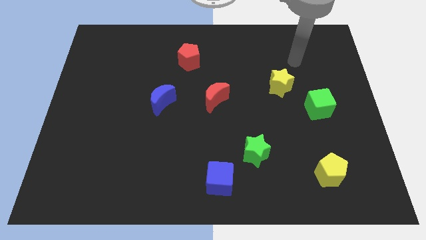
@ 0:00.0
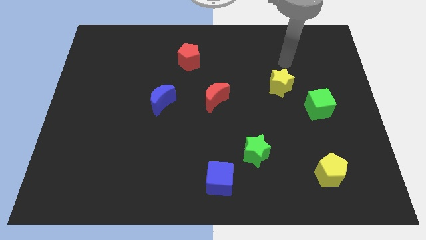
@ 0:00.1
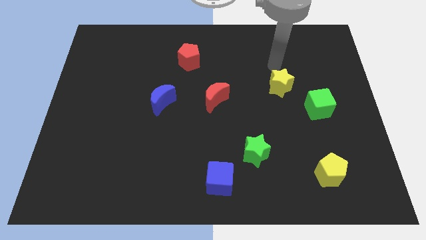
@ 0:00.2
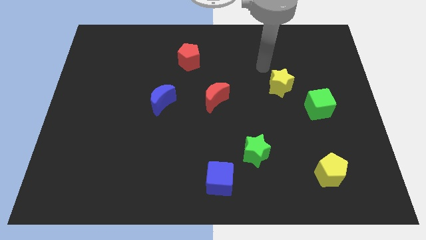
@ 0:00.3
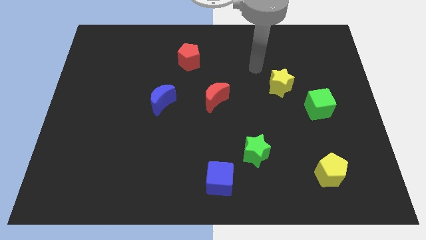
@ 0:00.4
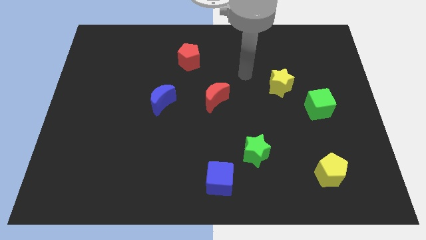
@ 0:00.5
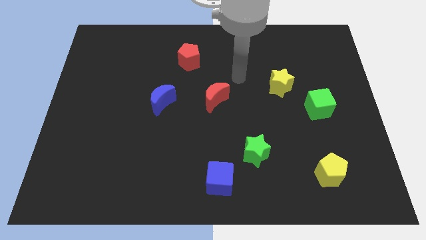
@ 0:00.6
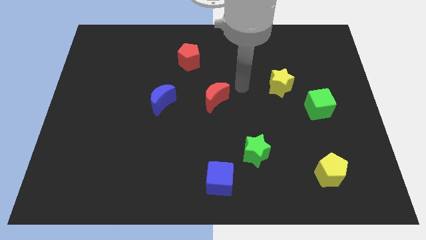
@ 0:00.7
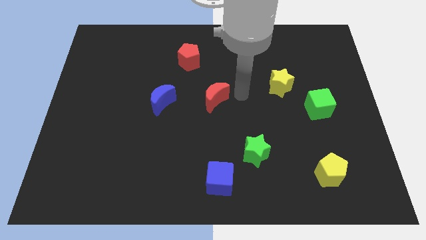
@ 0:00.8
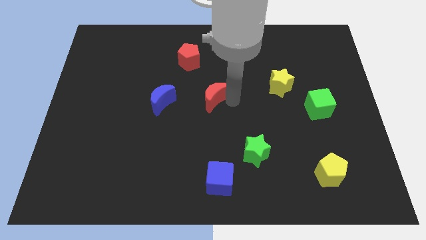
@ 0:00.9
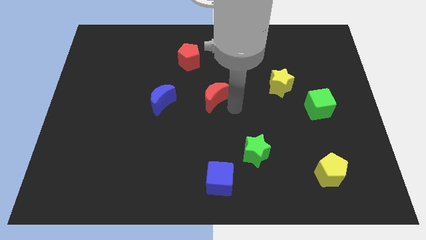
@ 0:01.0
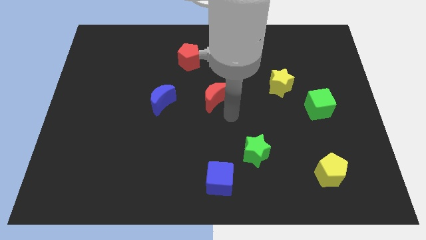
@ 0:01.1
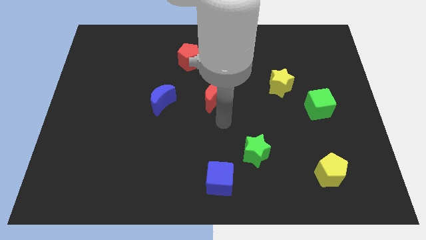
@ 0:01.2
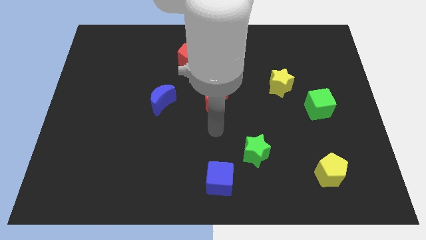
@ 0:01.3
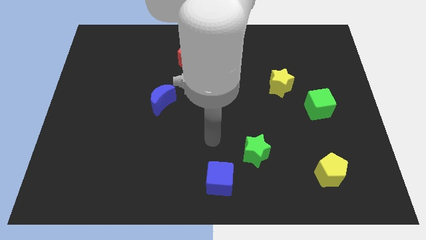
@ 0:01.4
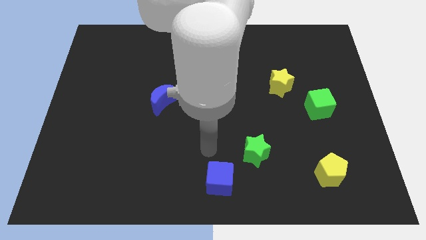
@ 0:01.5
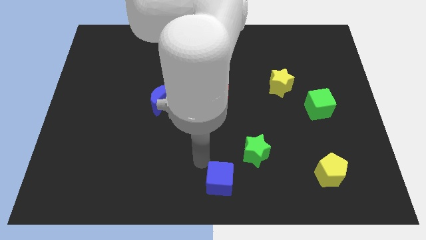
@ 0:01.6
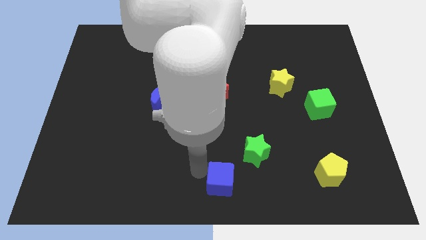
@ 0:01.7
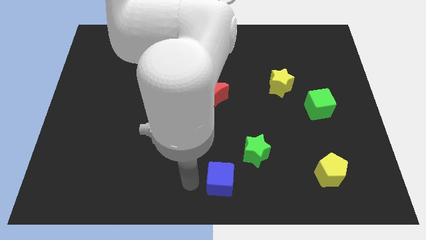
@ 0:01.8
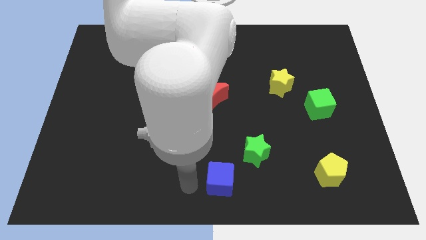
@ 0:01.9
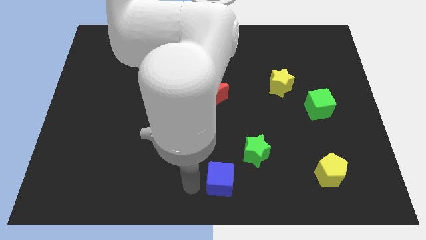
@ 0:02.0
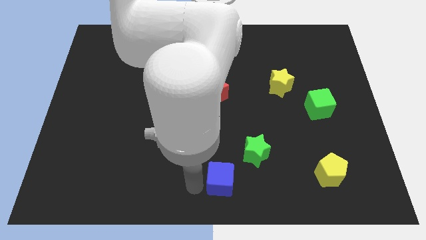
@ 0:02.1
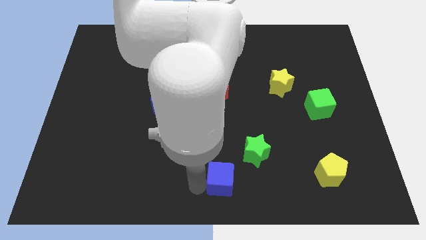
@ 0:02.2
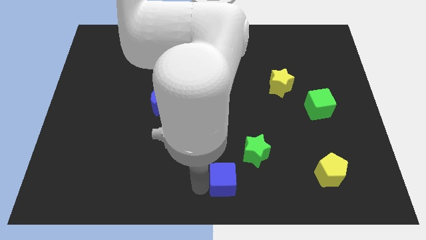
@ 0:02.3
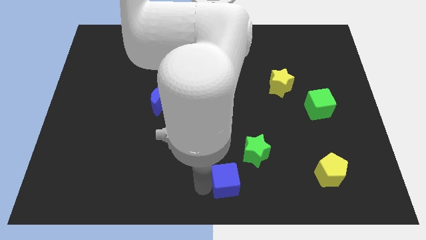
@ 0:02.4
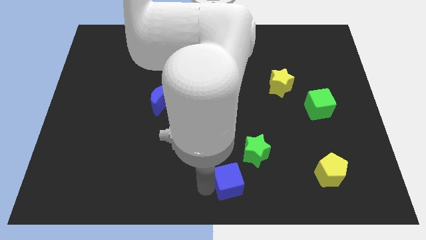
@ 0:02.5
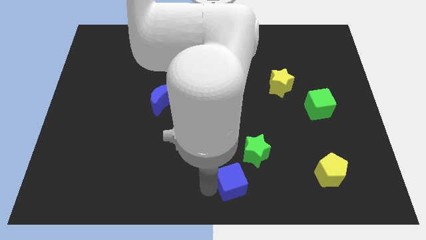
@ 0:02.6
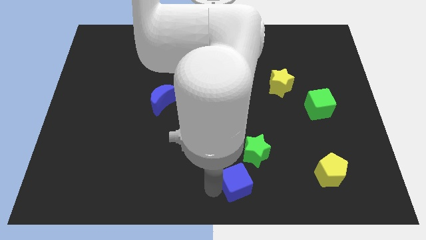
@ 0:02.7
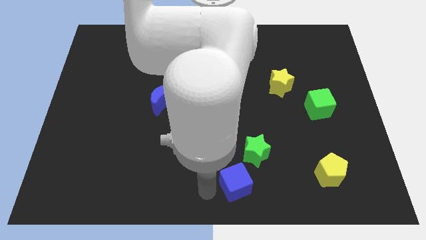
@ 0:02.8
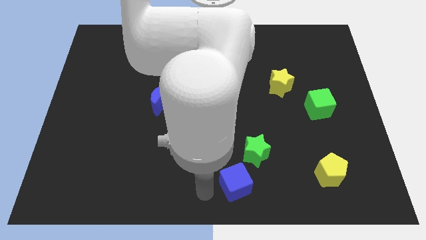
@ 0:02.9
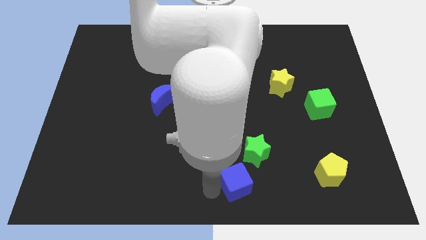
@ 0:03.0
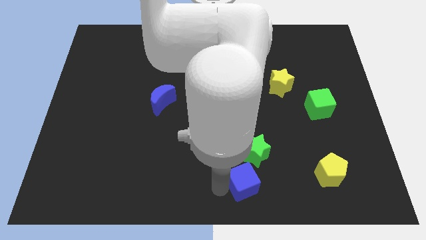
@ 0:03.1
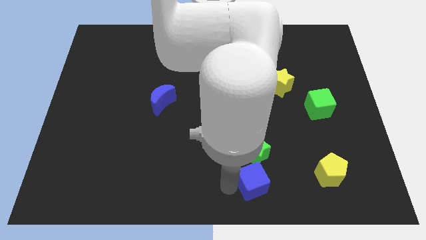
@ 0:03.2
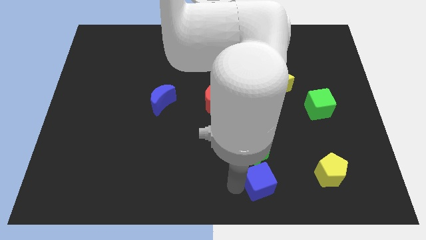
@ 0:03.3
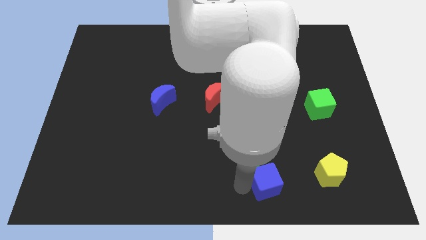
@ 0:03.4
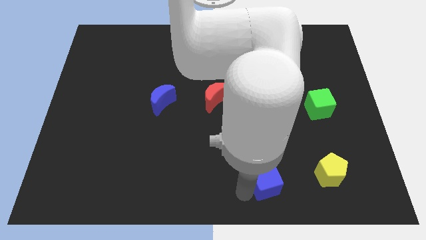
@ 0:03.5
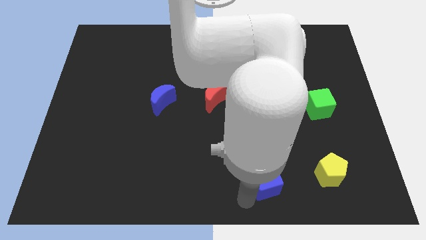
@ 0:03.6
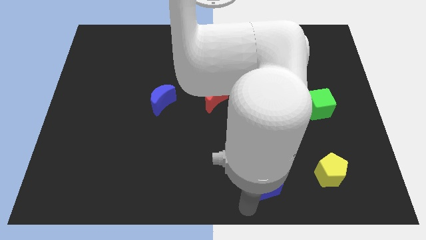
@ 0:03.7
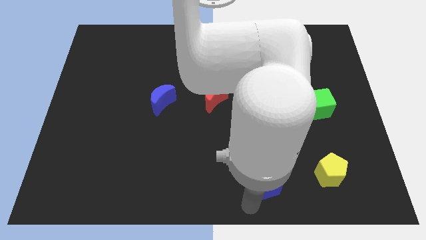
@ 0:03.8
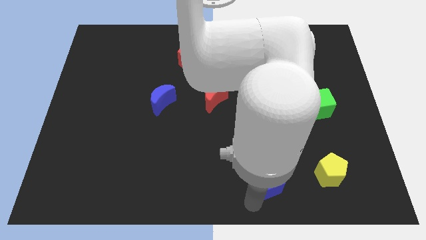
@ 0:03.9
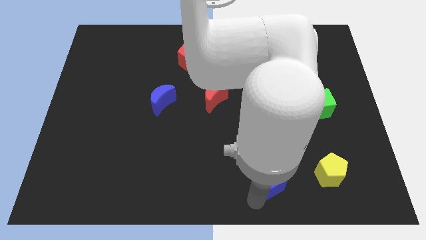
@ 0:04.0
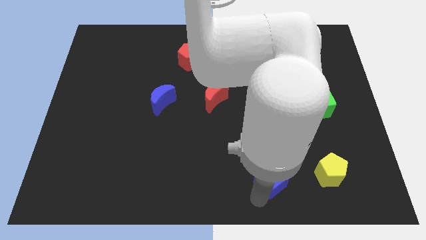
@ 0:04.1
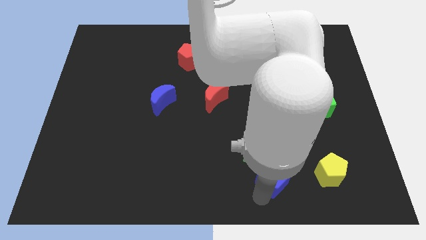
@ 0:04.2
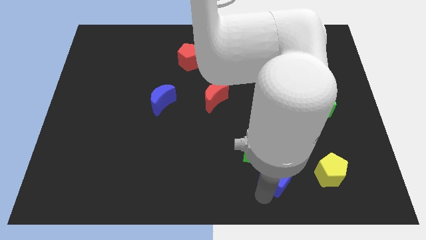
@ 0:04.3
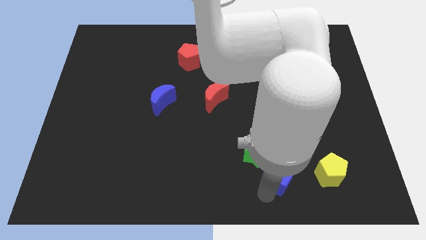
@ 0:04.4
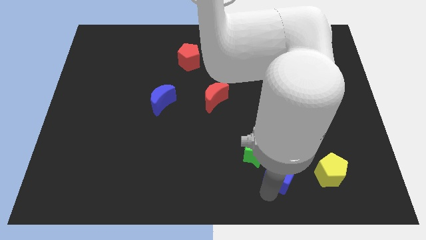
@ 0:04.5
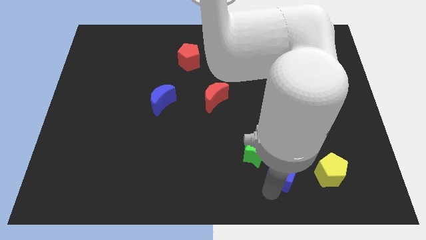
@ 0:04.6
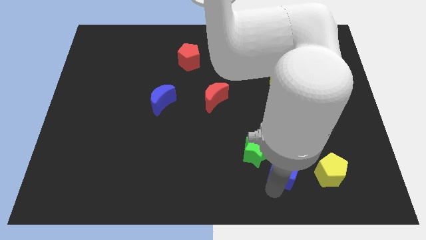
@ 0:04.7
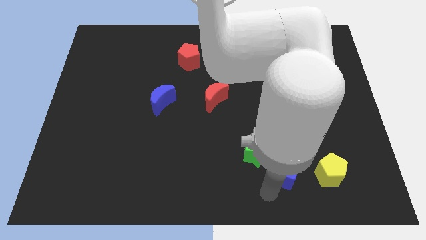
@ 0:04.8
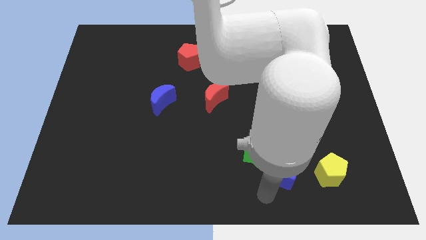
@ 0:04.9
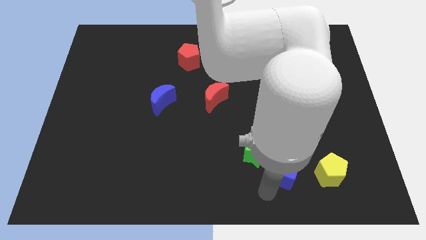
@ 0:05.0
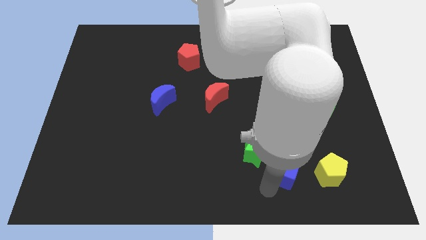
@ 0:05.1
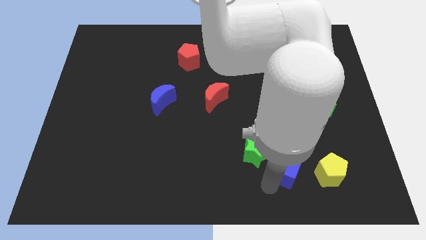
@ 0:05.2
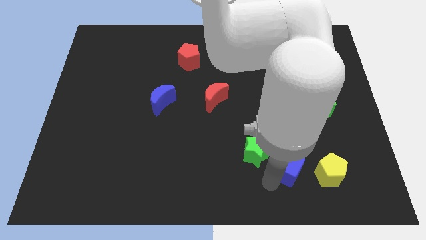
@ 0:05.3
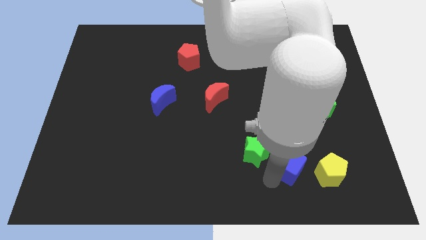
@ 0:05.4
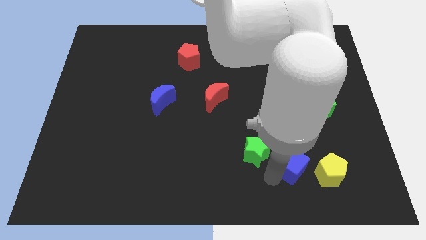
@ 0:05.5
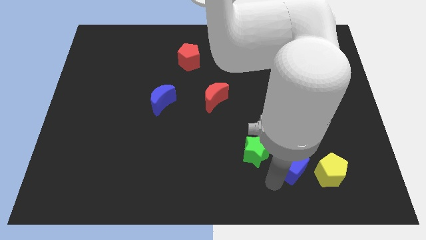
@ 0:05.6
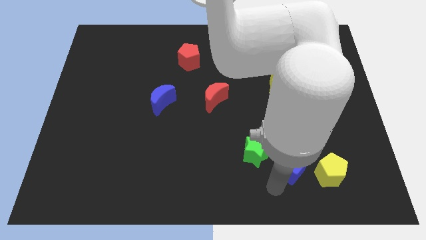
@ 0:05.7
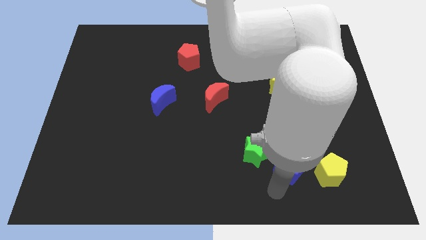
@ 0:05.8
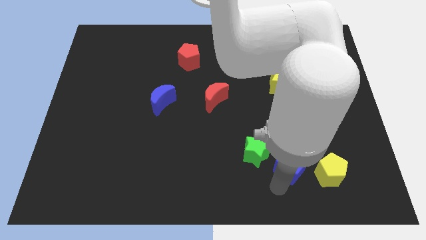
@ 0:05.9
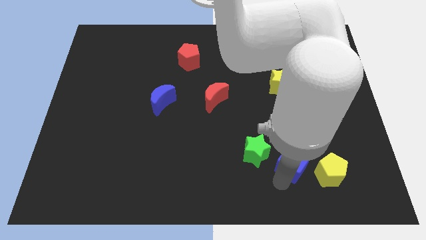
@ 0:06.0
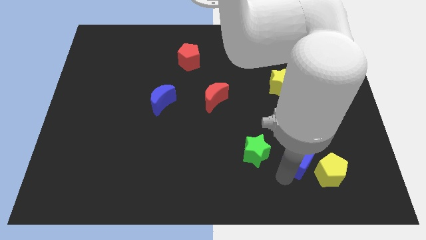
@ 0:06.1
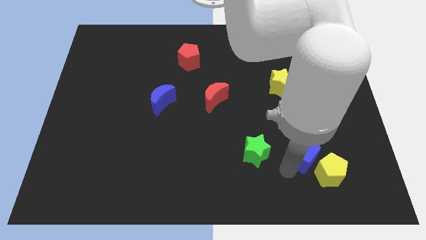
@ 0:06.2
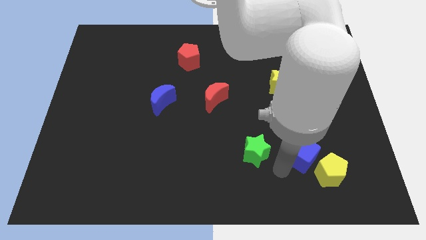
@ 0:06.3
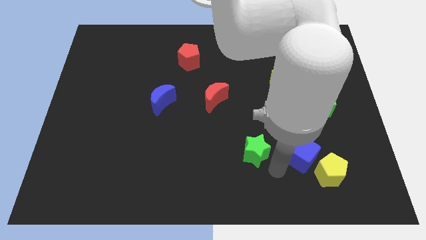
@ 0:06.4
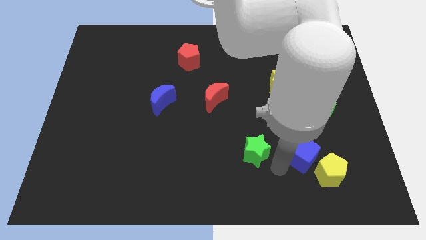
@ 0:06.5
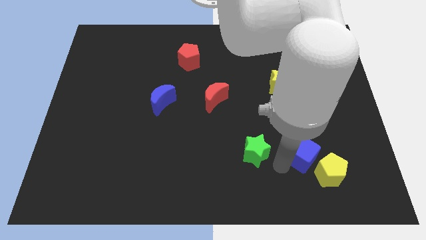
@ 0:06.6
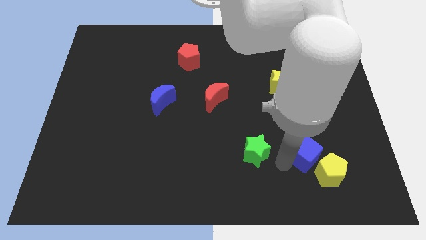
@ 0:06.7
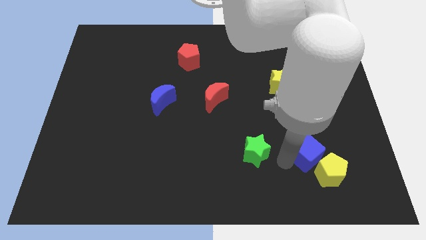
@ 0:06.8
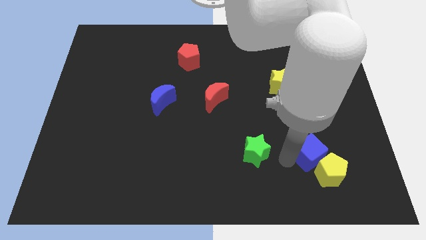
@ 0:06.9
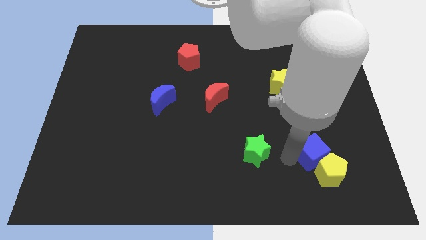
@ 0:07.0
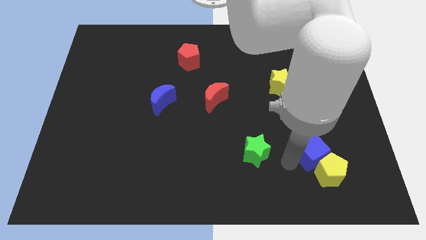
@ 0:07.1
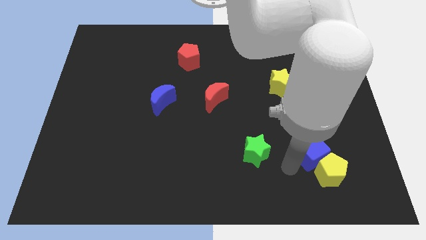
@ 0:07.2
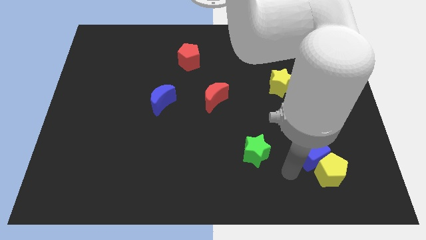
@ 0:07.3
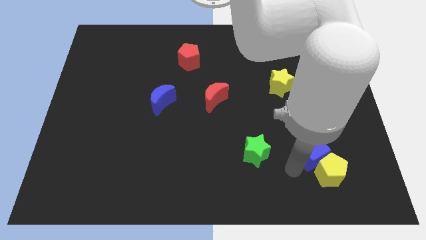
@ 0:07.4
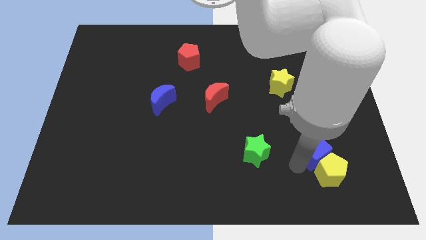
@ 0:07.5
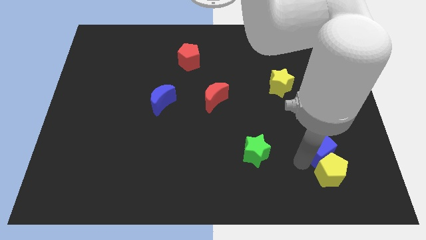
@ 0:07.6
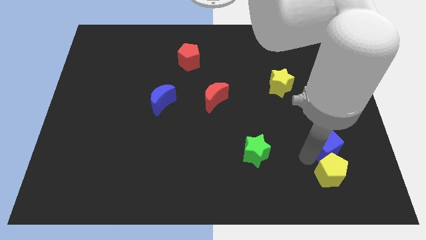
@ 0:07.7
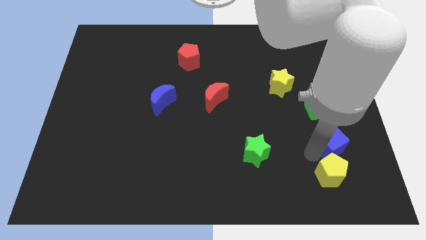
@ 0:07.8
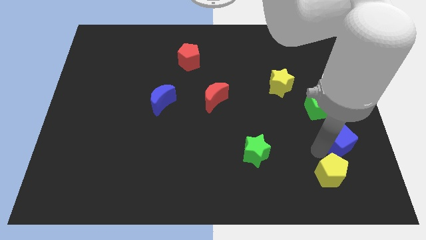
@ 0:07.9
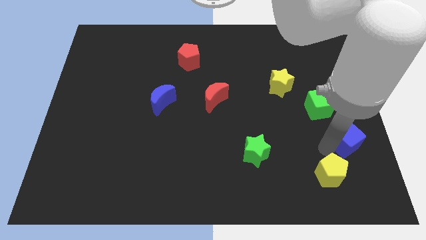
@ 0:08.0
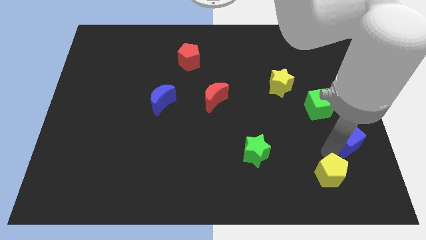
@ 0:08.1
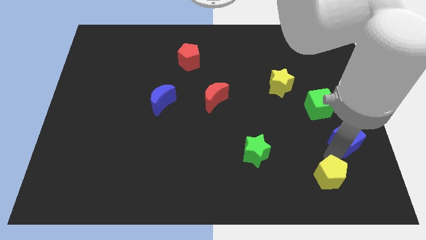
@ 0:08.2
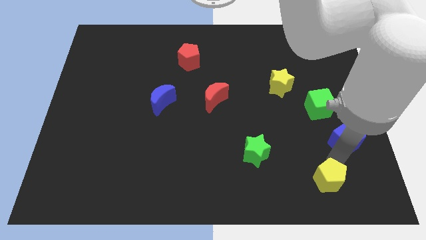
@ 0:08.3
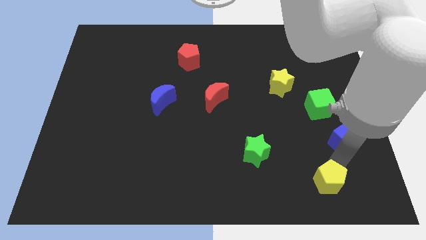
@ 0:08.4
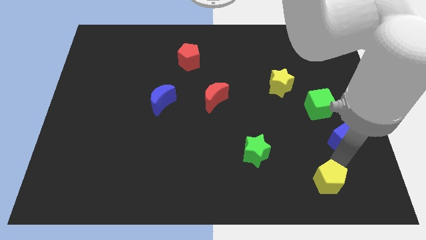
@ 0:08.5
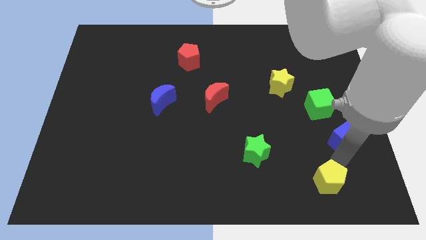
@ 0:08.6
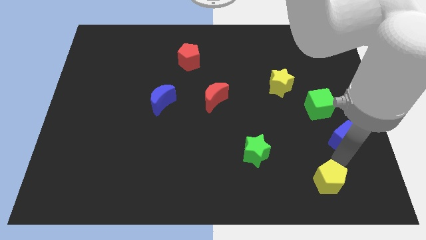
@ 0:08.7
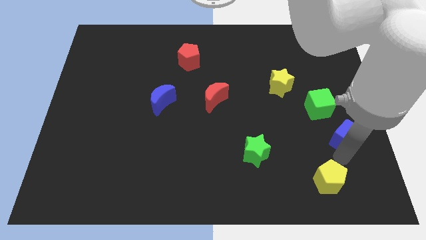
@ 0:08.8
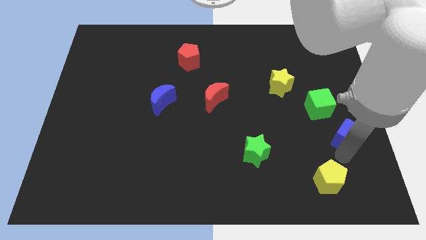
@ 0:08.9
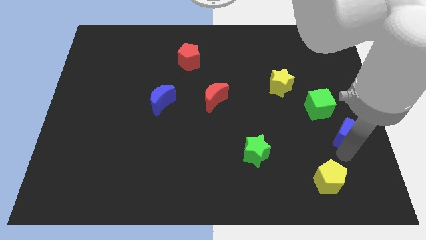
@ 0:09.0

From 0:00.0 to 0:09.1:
slide the blue cube to the right side of the board
